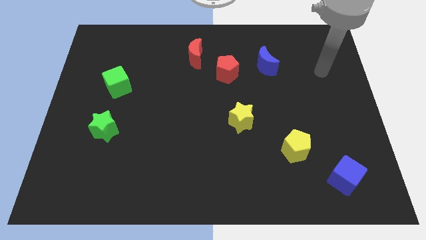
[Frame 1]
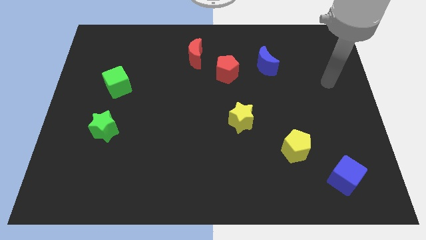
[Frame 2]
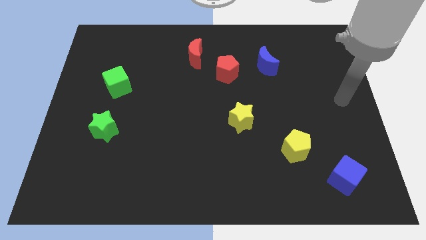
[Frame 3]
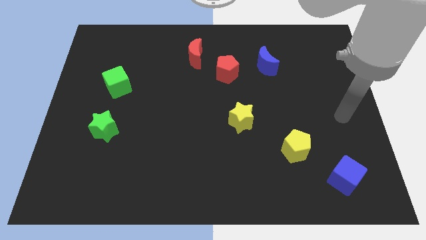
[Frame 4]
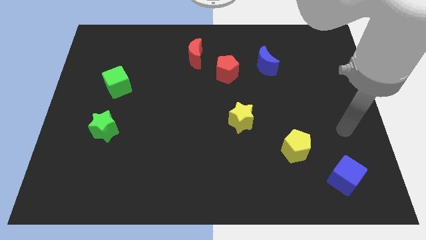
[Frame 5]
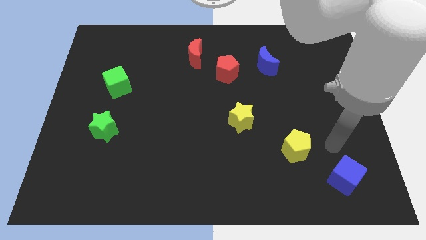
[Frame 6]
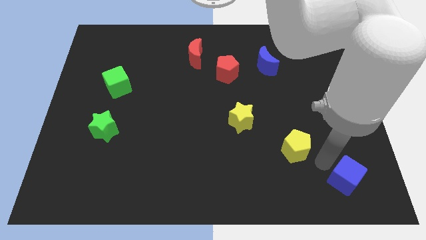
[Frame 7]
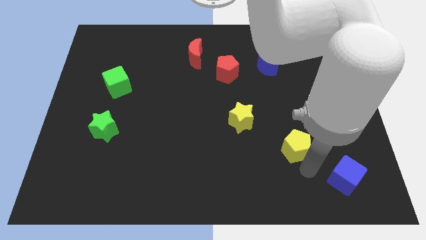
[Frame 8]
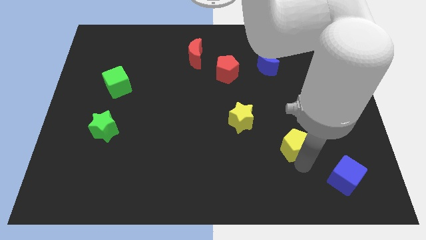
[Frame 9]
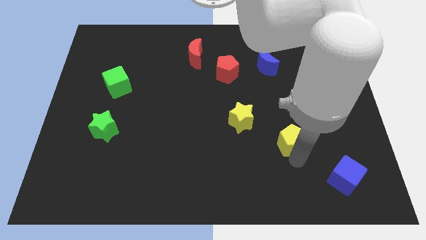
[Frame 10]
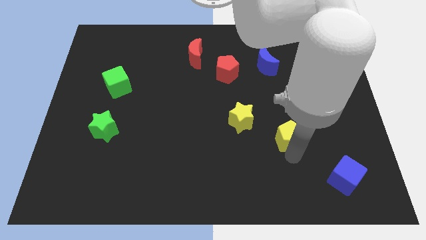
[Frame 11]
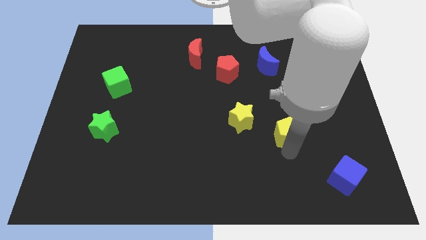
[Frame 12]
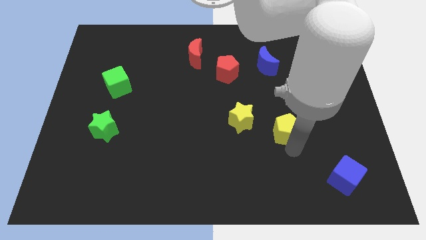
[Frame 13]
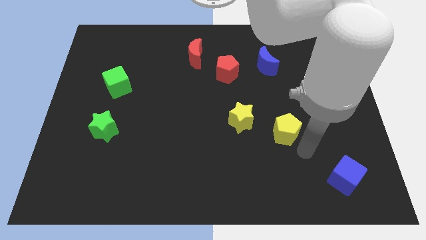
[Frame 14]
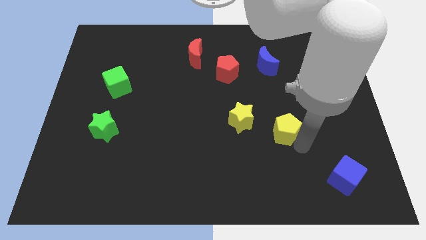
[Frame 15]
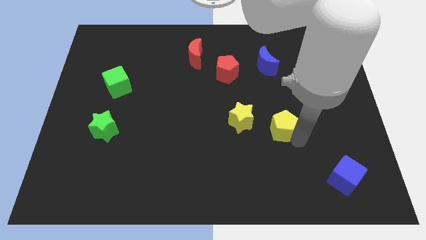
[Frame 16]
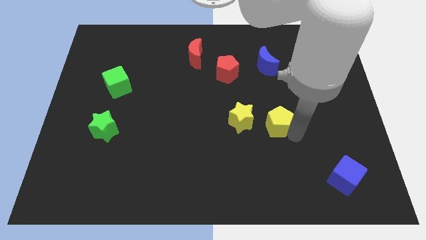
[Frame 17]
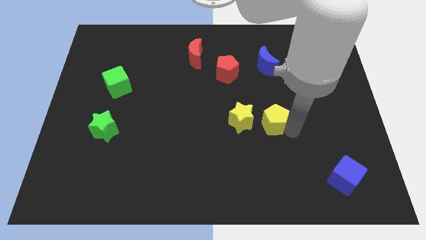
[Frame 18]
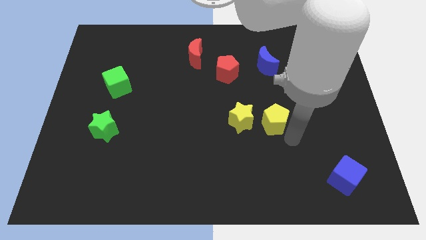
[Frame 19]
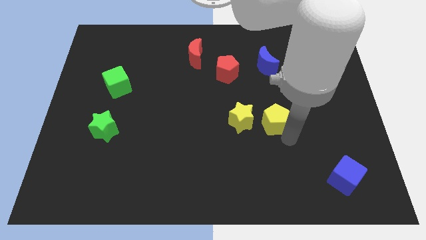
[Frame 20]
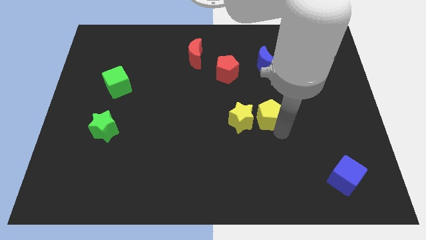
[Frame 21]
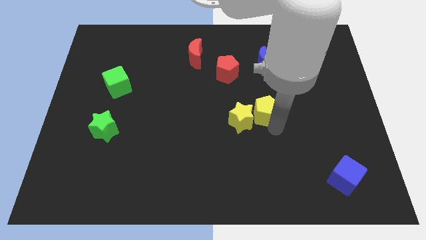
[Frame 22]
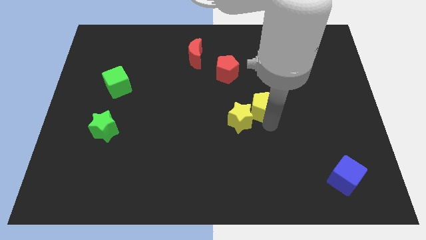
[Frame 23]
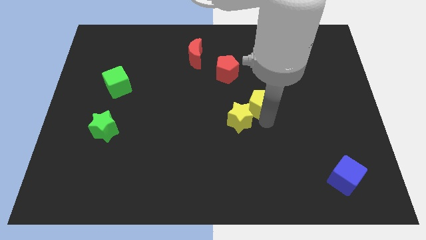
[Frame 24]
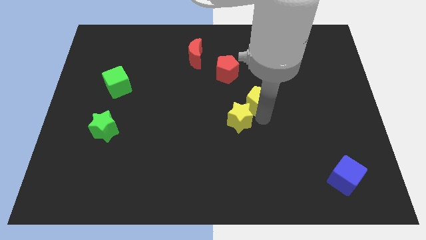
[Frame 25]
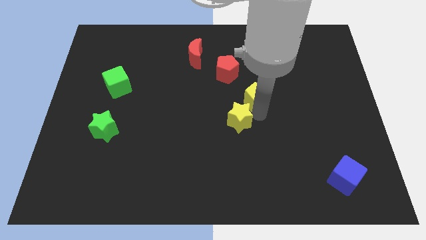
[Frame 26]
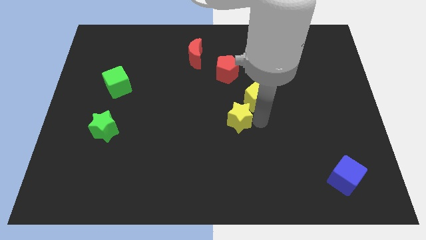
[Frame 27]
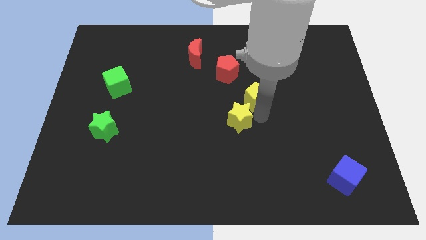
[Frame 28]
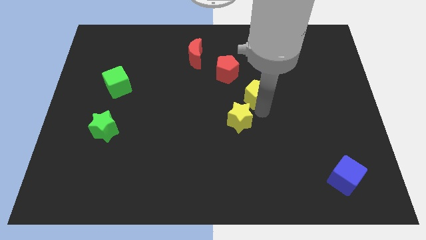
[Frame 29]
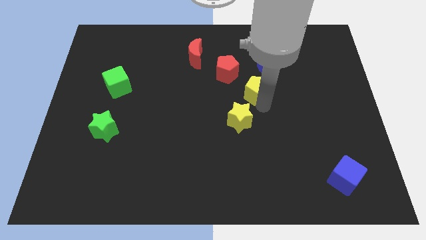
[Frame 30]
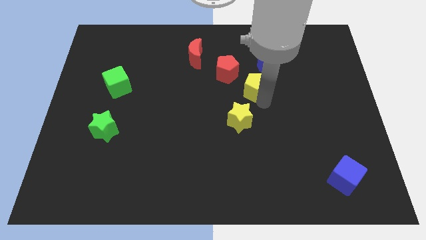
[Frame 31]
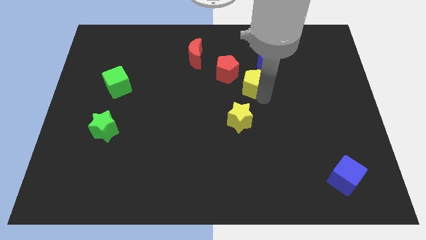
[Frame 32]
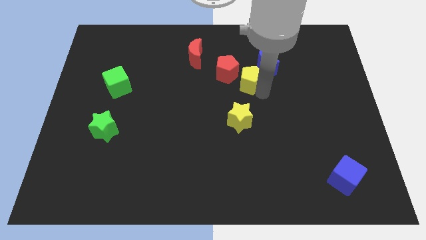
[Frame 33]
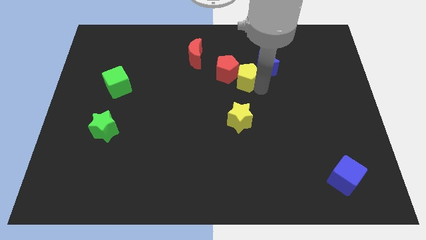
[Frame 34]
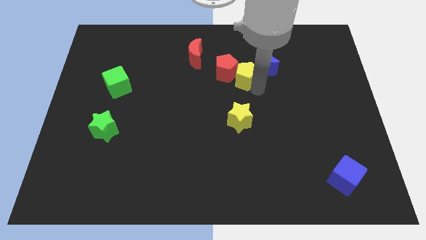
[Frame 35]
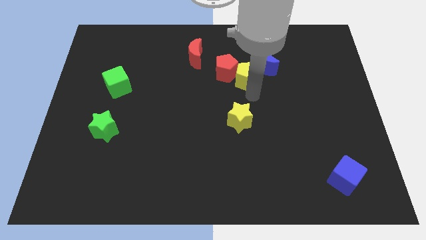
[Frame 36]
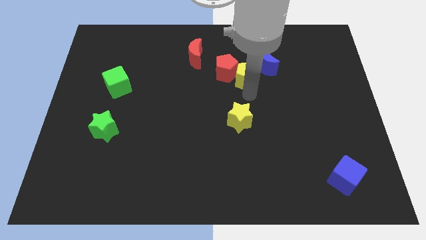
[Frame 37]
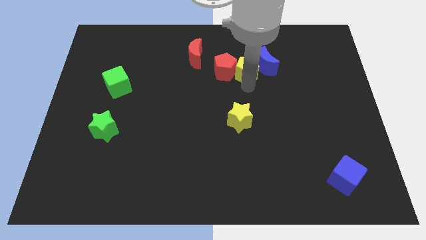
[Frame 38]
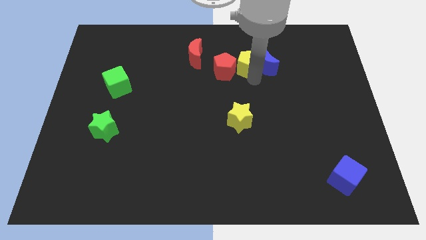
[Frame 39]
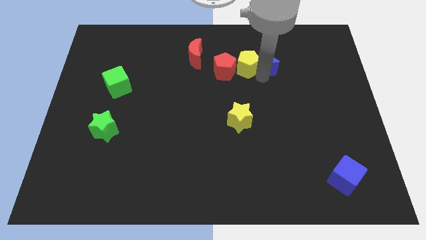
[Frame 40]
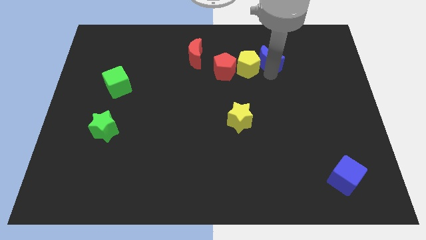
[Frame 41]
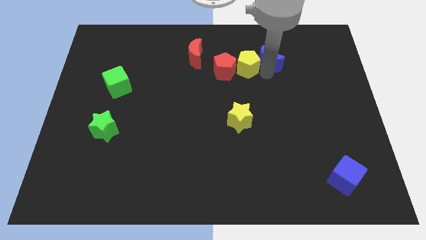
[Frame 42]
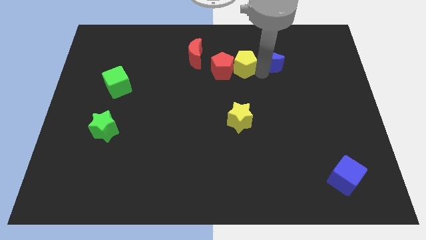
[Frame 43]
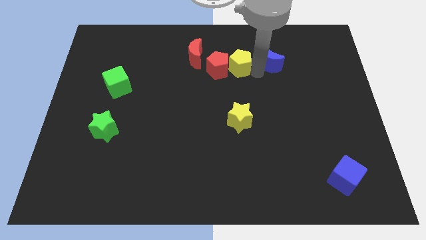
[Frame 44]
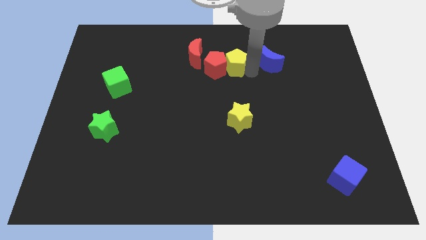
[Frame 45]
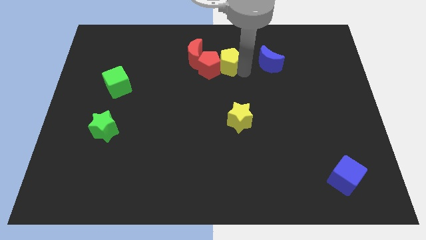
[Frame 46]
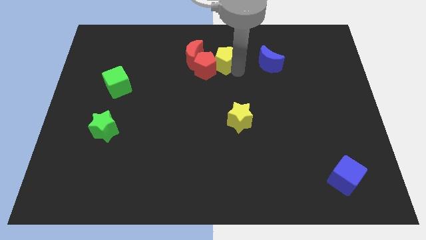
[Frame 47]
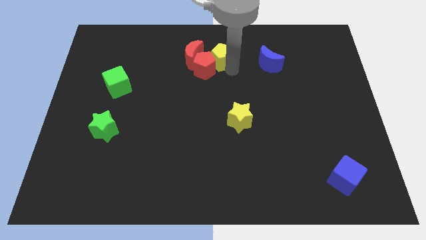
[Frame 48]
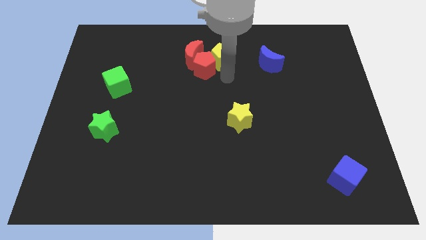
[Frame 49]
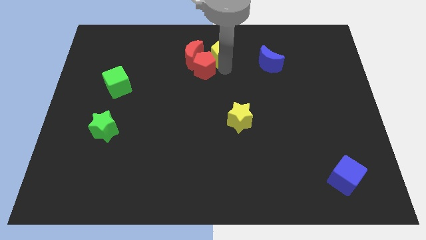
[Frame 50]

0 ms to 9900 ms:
slide the yellow pentagon to the top

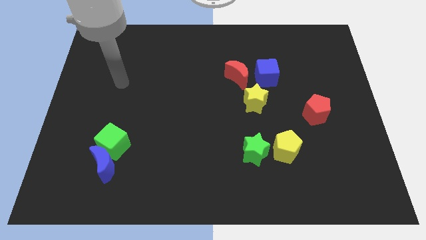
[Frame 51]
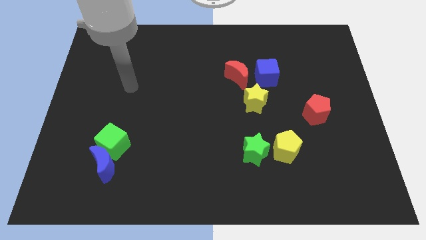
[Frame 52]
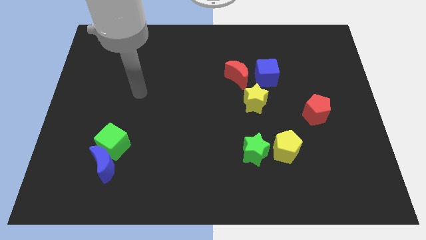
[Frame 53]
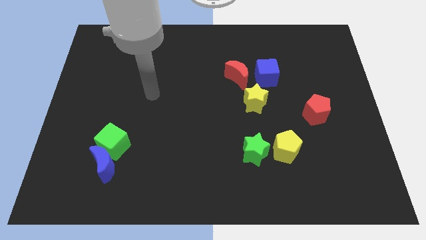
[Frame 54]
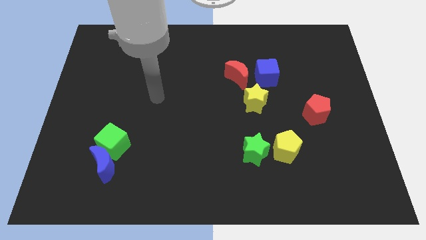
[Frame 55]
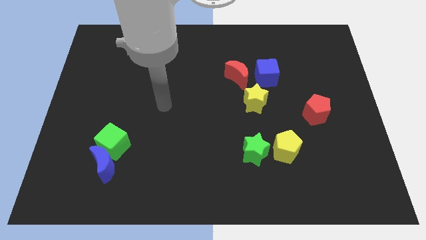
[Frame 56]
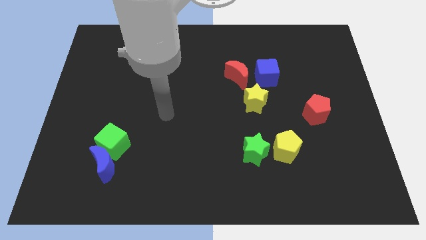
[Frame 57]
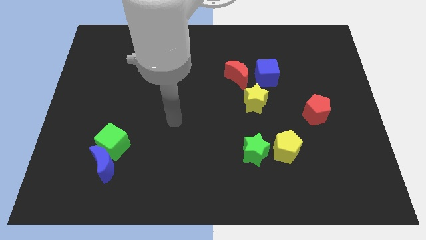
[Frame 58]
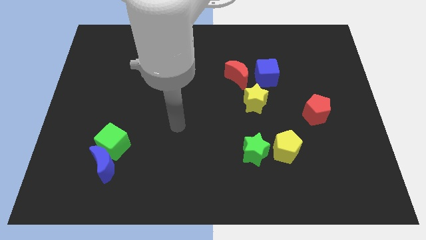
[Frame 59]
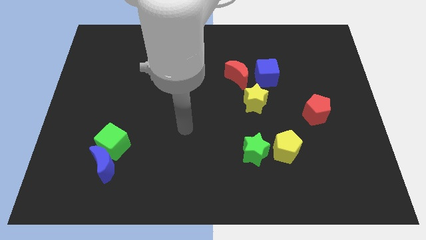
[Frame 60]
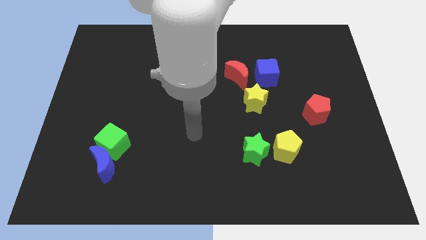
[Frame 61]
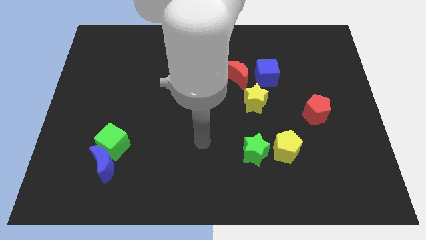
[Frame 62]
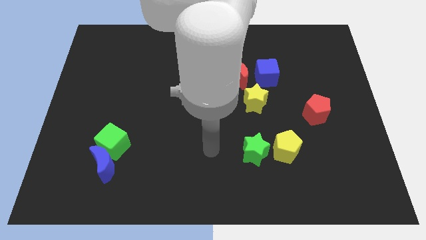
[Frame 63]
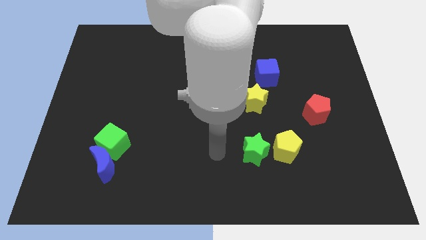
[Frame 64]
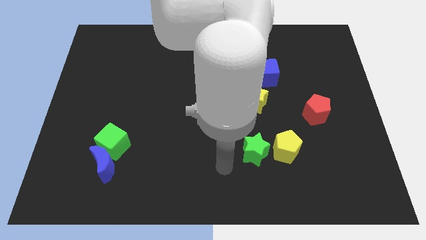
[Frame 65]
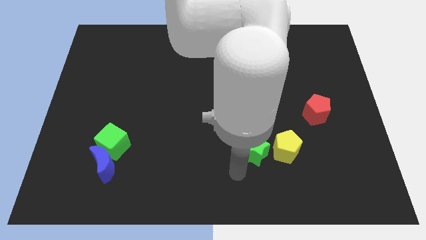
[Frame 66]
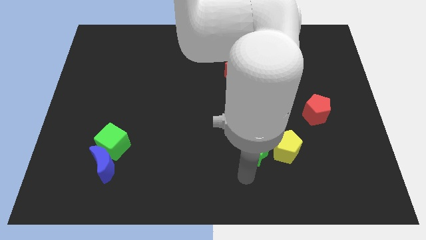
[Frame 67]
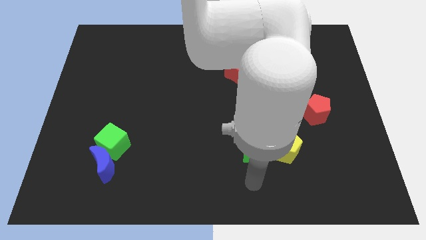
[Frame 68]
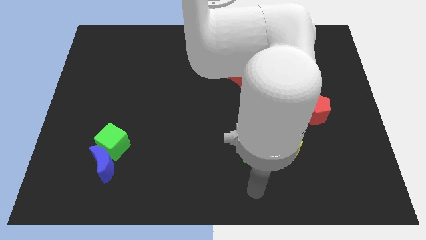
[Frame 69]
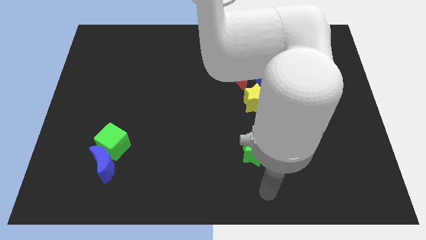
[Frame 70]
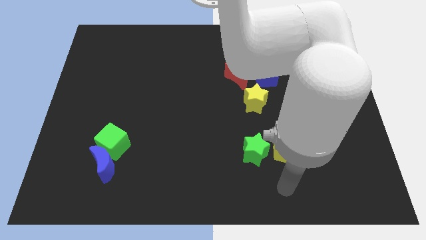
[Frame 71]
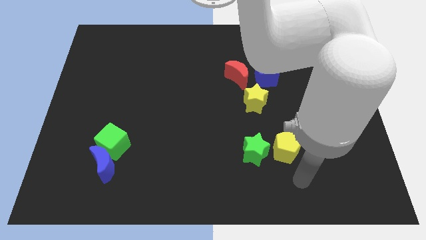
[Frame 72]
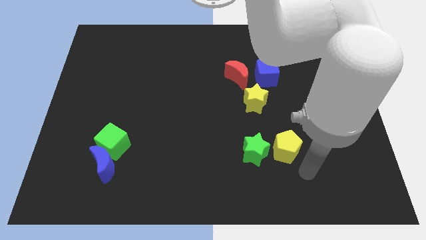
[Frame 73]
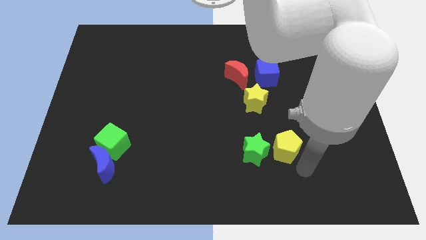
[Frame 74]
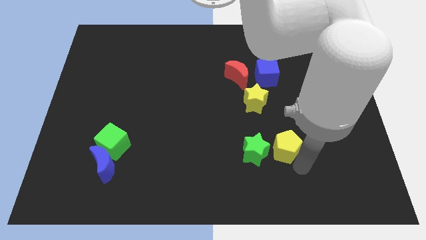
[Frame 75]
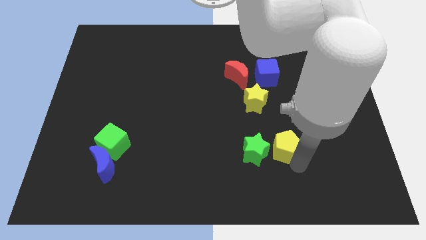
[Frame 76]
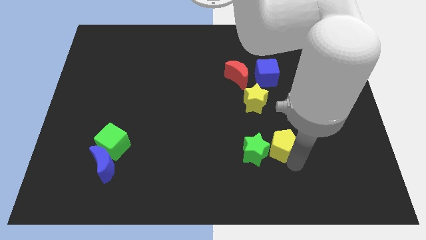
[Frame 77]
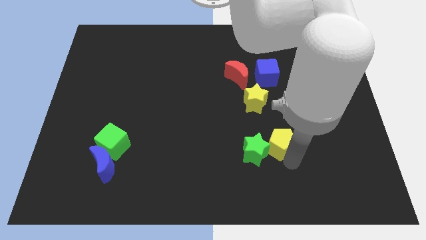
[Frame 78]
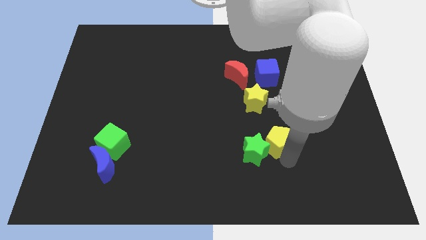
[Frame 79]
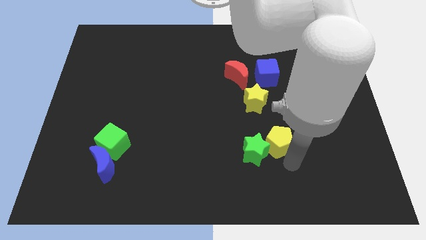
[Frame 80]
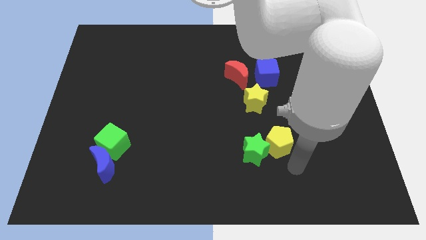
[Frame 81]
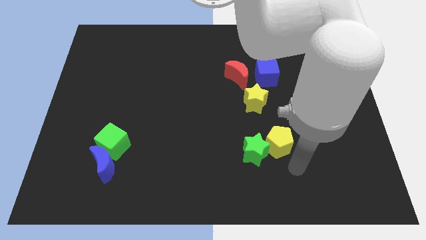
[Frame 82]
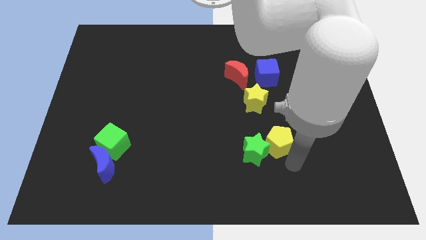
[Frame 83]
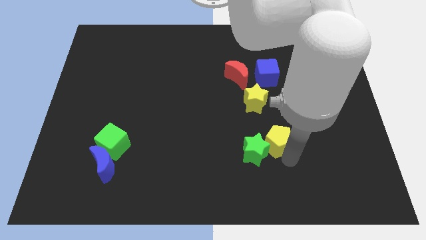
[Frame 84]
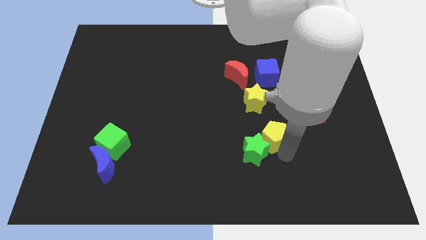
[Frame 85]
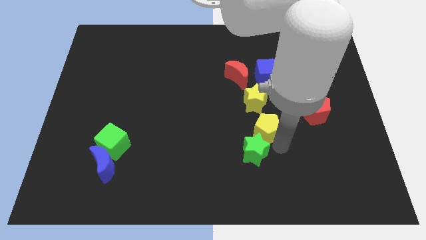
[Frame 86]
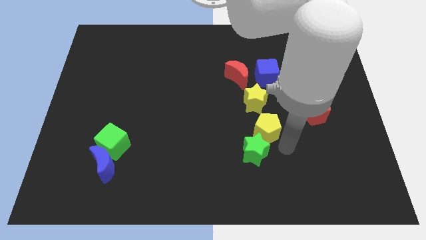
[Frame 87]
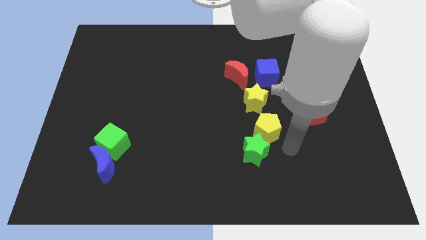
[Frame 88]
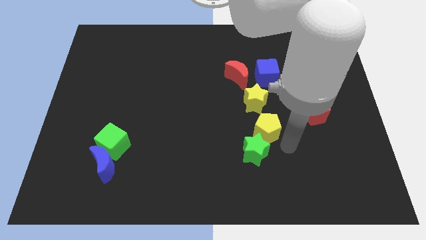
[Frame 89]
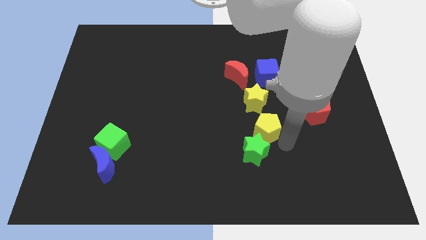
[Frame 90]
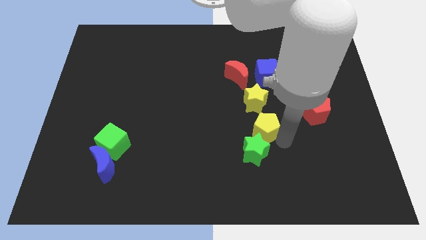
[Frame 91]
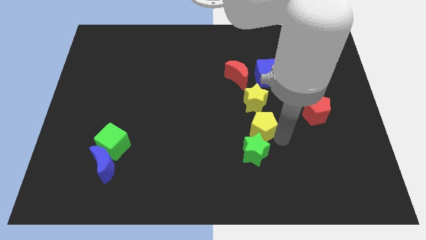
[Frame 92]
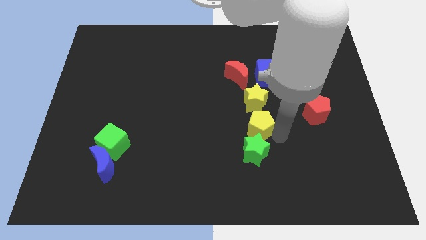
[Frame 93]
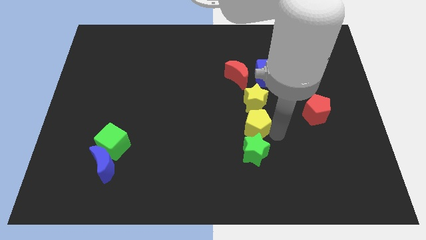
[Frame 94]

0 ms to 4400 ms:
slide the yellow pentagon to the middle
